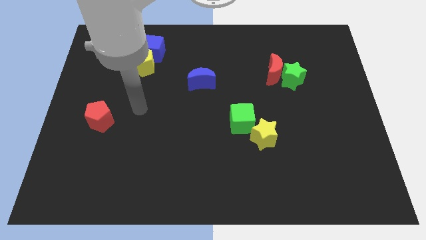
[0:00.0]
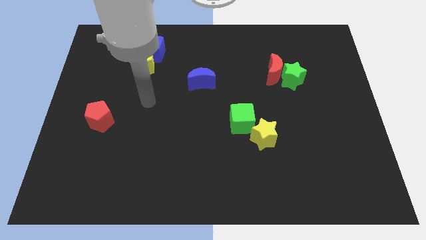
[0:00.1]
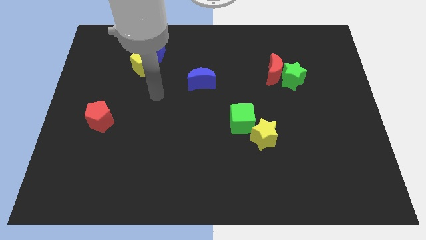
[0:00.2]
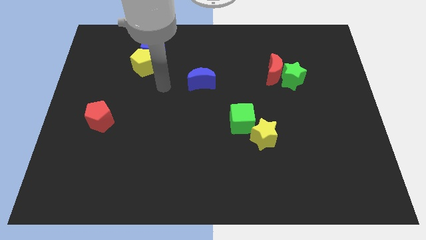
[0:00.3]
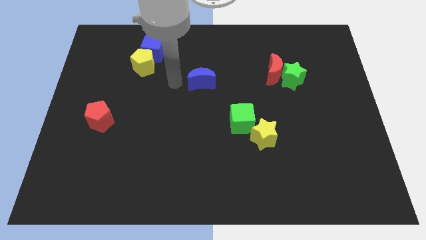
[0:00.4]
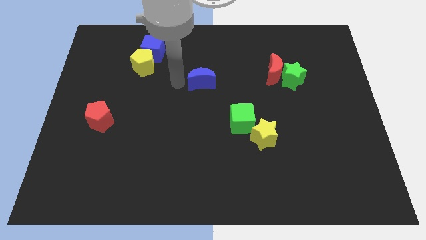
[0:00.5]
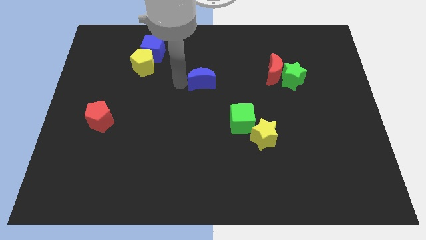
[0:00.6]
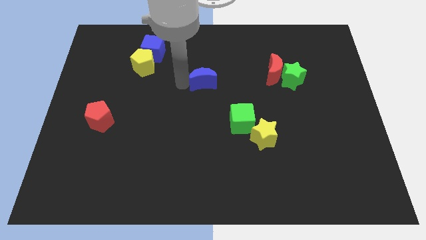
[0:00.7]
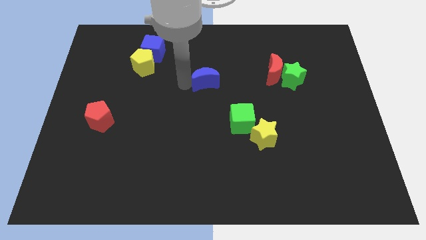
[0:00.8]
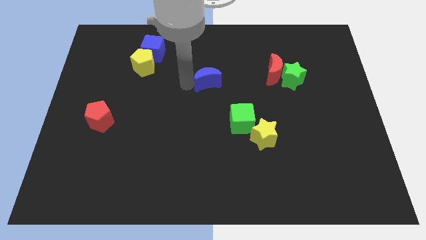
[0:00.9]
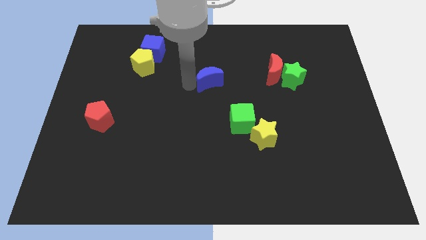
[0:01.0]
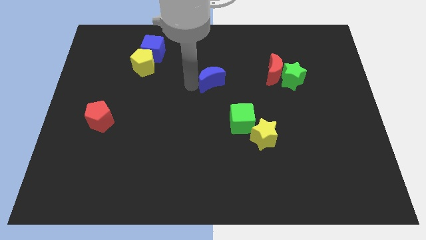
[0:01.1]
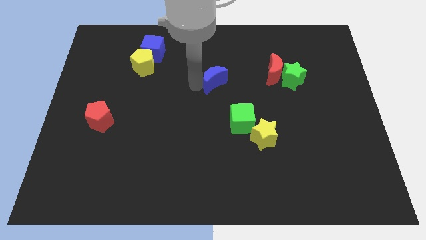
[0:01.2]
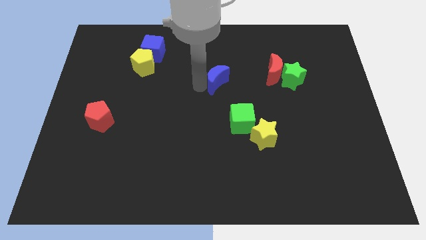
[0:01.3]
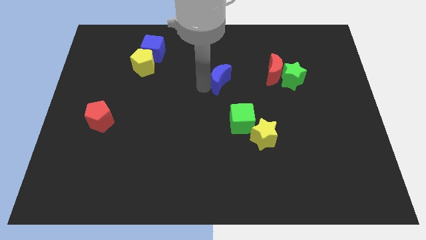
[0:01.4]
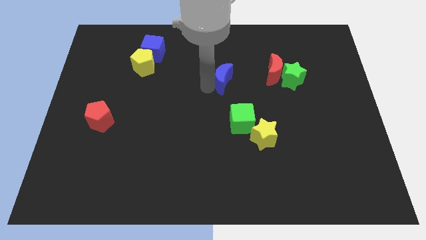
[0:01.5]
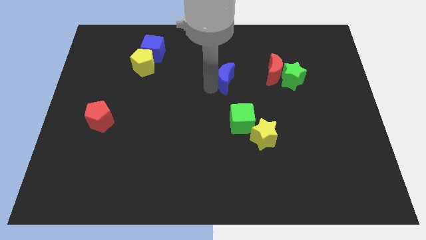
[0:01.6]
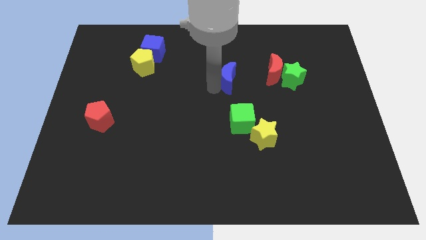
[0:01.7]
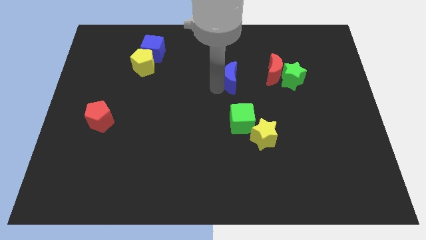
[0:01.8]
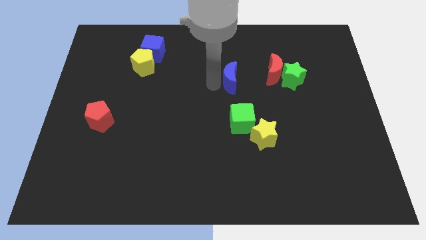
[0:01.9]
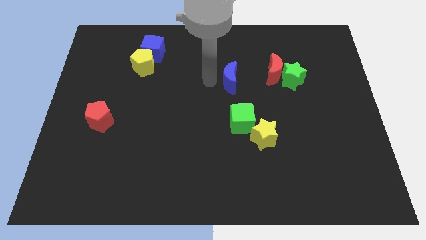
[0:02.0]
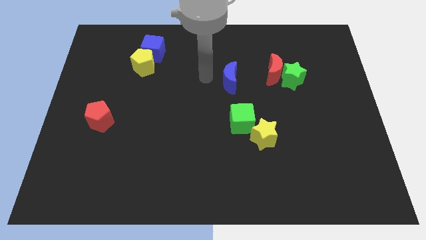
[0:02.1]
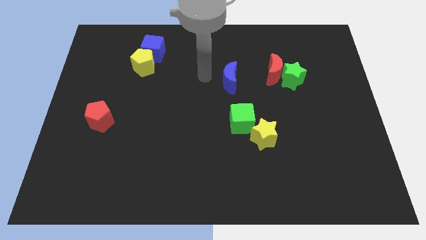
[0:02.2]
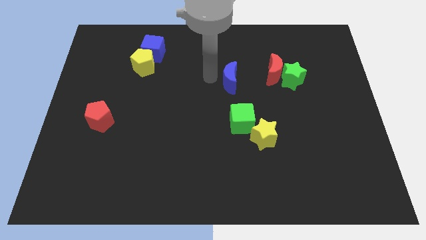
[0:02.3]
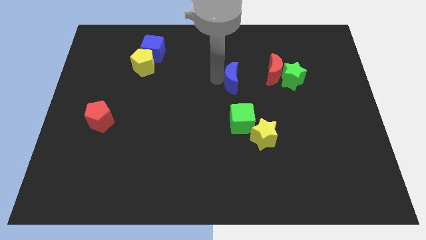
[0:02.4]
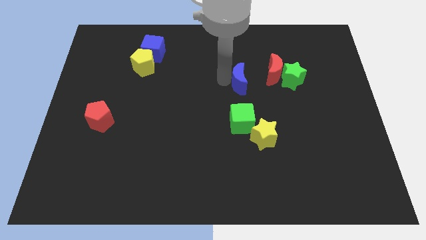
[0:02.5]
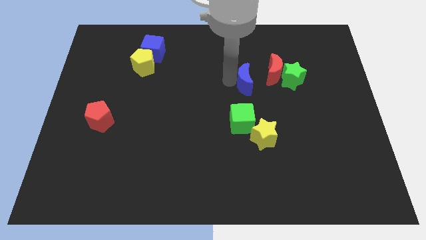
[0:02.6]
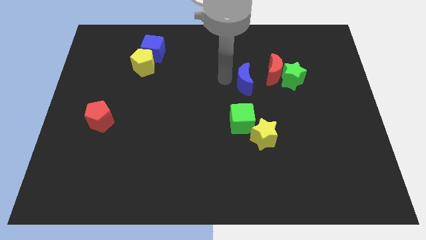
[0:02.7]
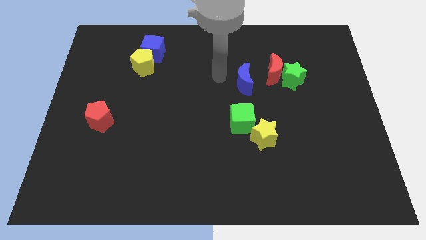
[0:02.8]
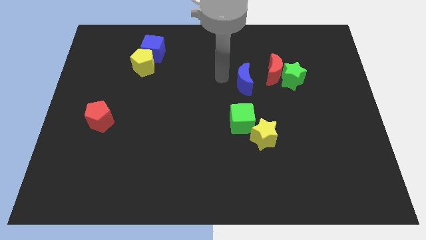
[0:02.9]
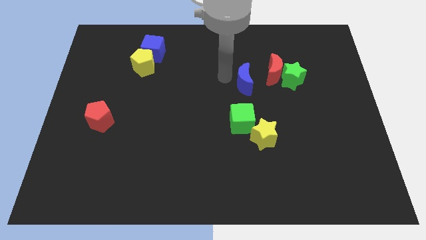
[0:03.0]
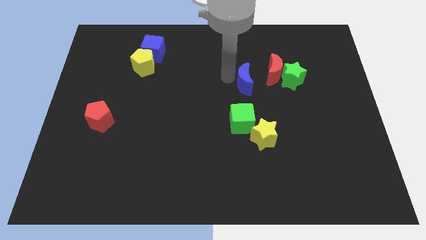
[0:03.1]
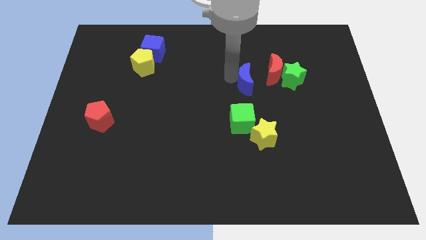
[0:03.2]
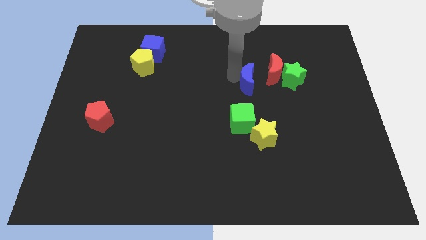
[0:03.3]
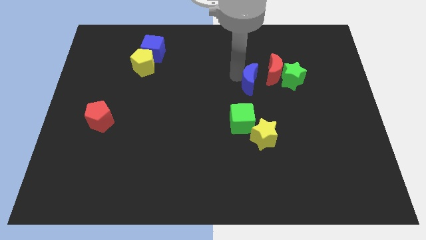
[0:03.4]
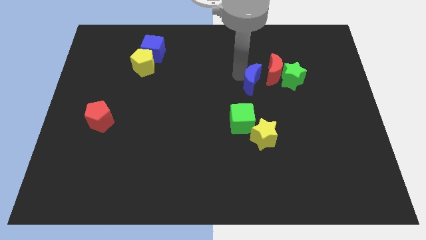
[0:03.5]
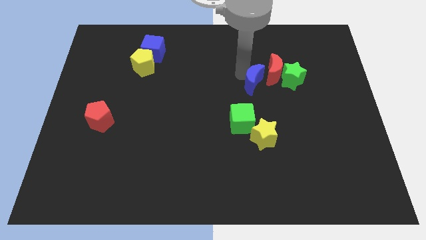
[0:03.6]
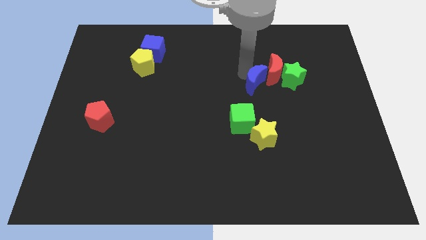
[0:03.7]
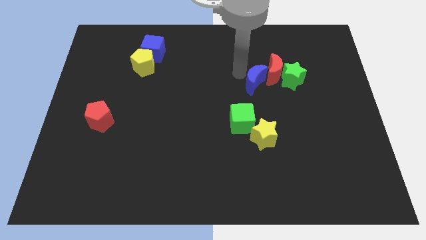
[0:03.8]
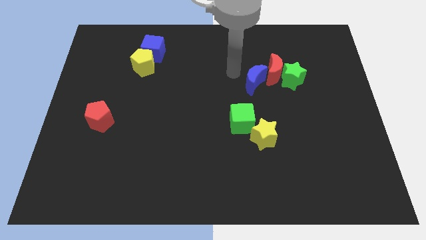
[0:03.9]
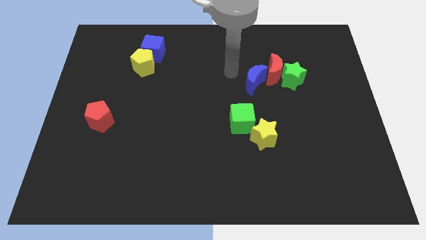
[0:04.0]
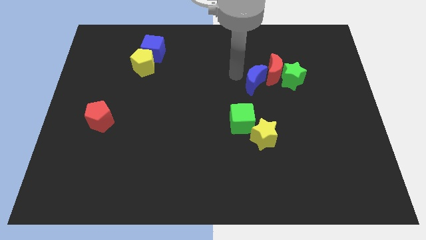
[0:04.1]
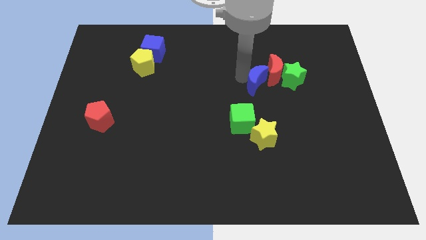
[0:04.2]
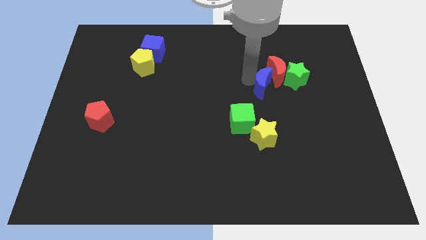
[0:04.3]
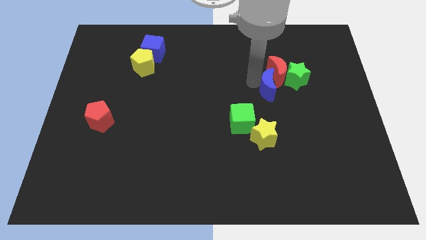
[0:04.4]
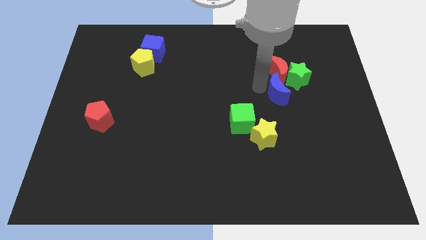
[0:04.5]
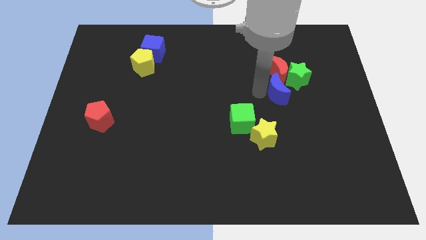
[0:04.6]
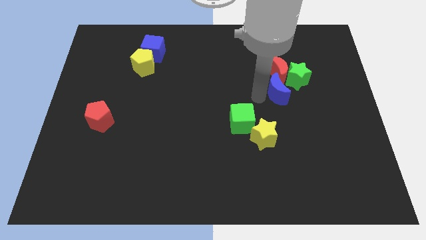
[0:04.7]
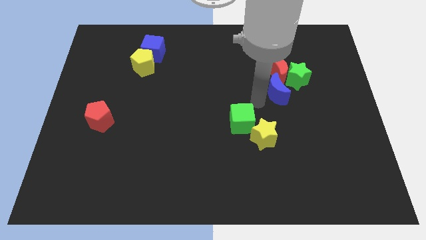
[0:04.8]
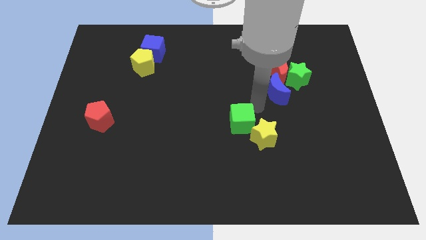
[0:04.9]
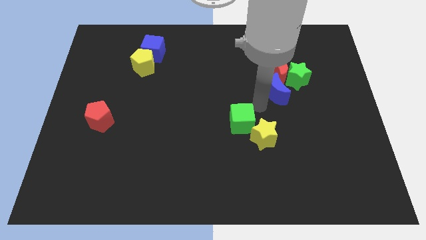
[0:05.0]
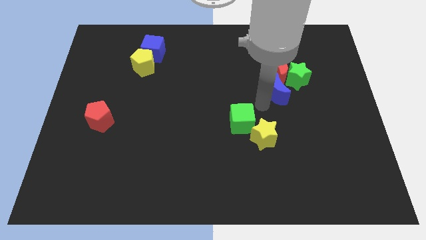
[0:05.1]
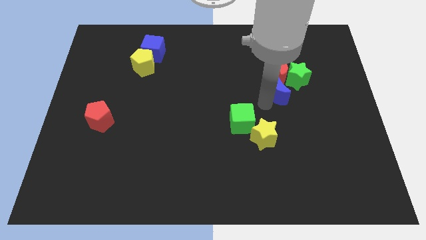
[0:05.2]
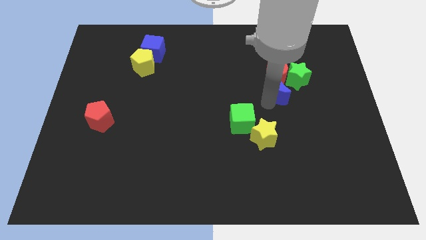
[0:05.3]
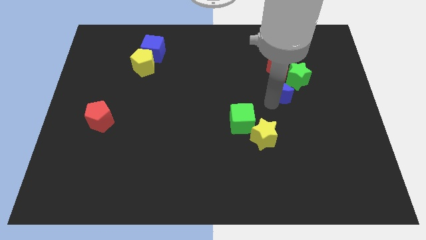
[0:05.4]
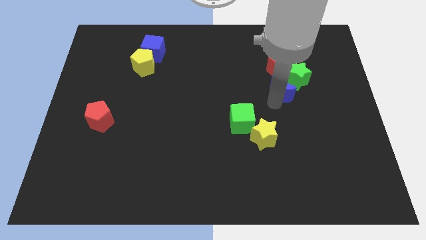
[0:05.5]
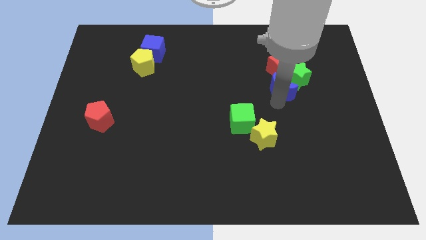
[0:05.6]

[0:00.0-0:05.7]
put the blue moon close to the green star
